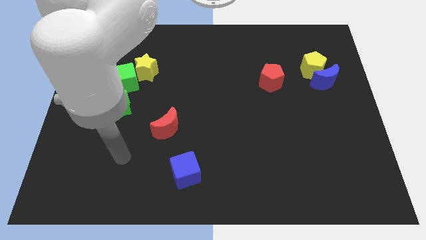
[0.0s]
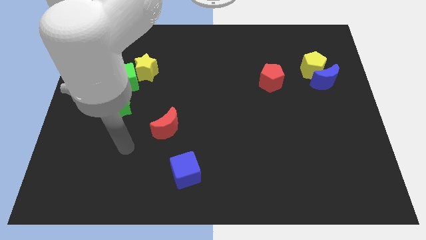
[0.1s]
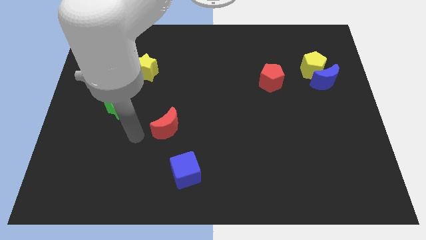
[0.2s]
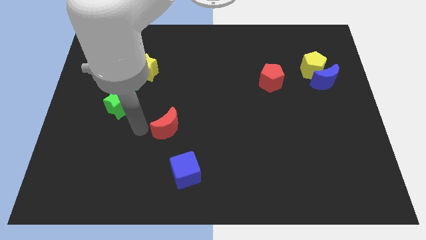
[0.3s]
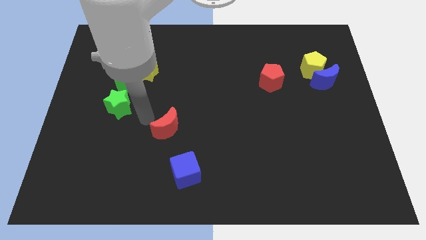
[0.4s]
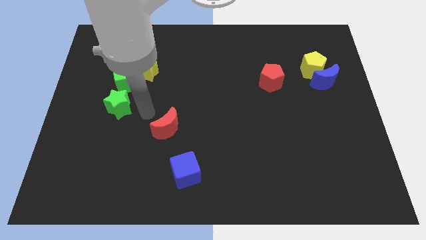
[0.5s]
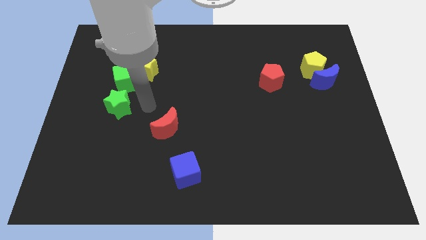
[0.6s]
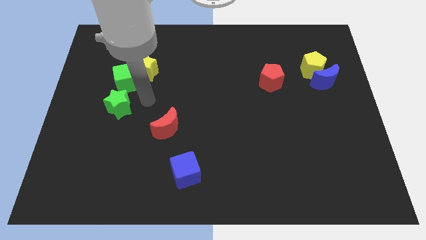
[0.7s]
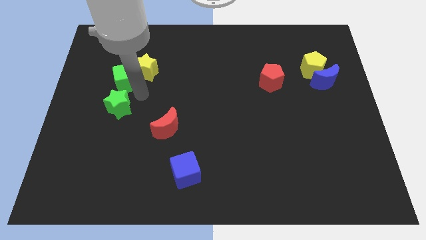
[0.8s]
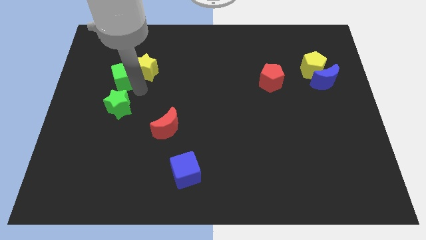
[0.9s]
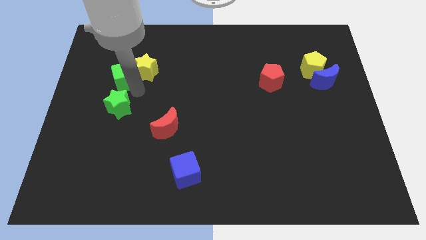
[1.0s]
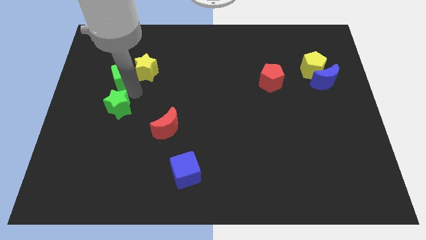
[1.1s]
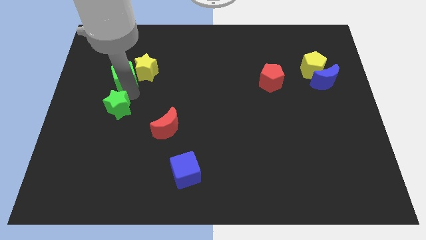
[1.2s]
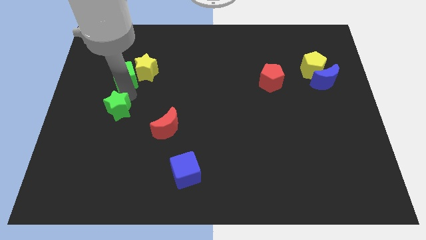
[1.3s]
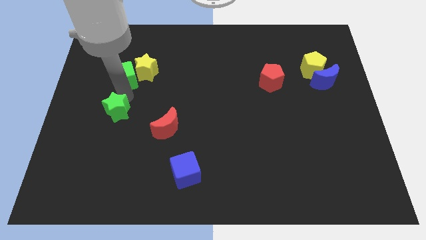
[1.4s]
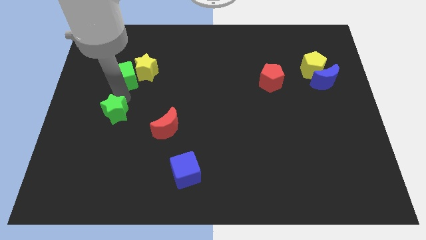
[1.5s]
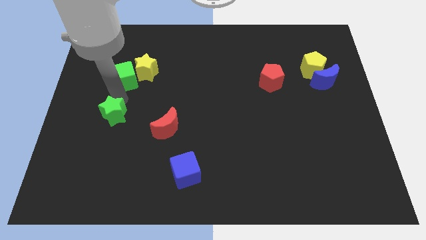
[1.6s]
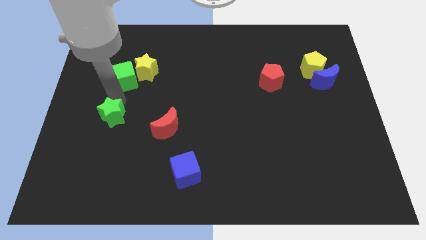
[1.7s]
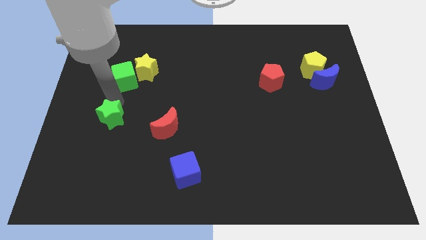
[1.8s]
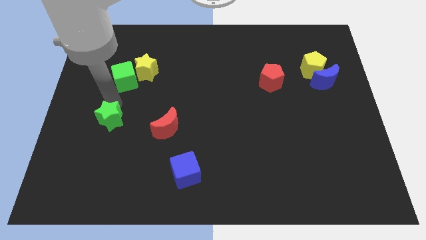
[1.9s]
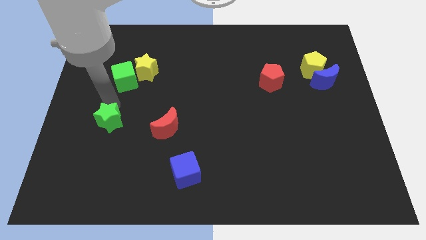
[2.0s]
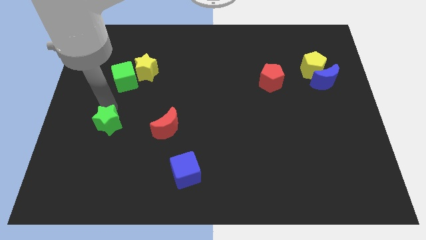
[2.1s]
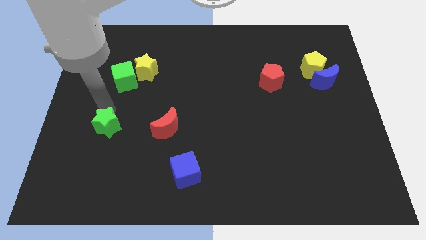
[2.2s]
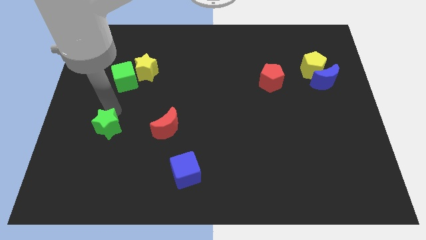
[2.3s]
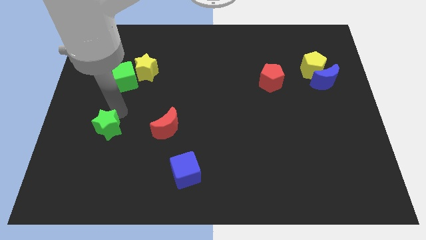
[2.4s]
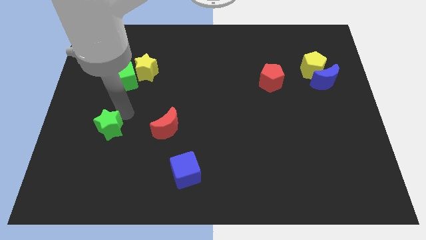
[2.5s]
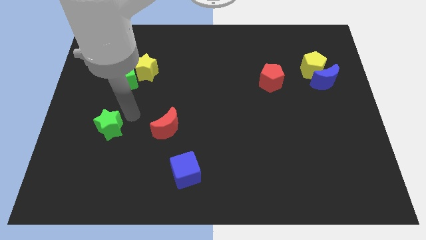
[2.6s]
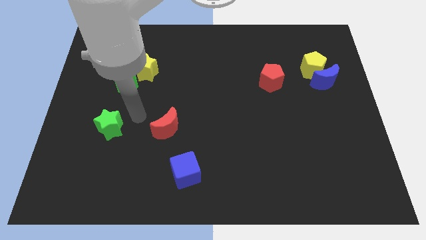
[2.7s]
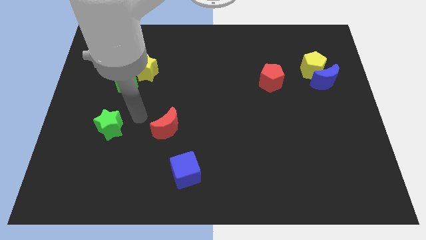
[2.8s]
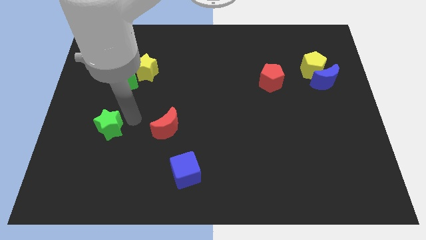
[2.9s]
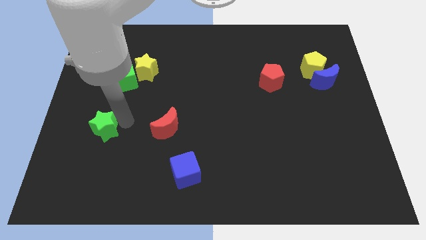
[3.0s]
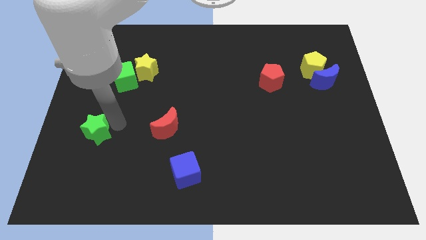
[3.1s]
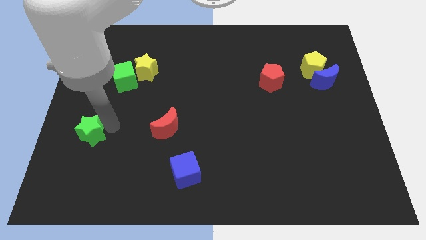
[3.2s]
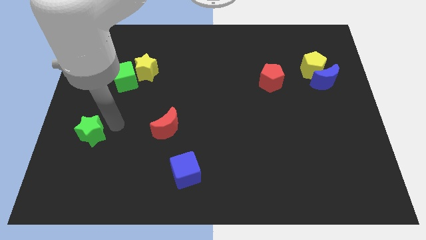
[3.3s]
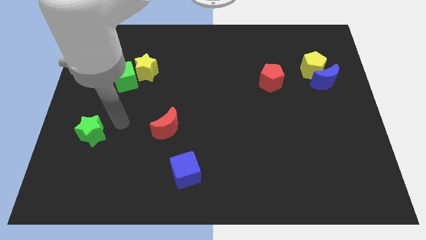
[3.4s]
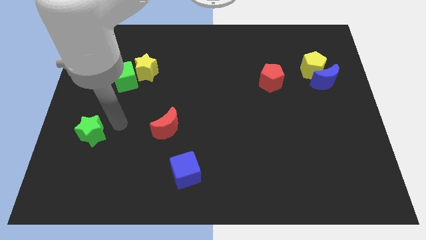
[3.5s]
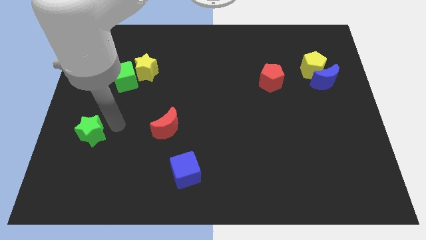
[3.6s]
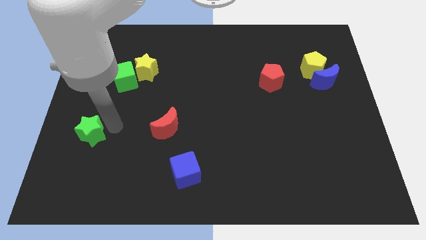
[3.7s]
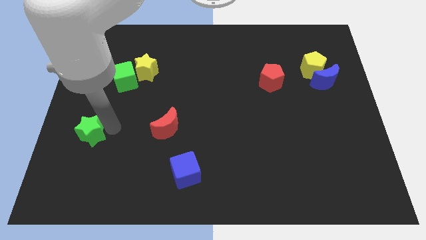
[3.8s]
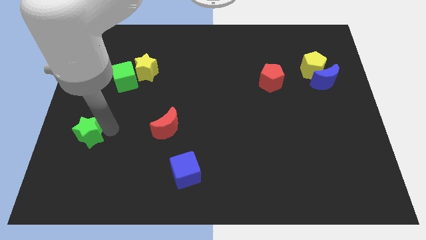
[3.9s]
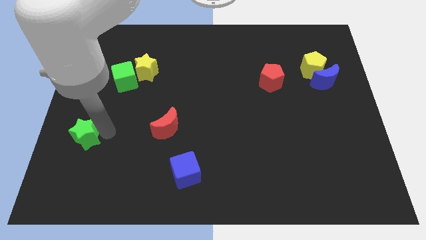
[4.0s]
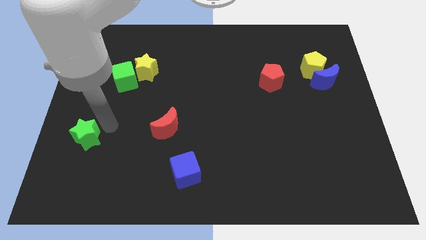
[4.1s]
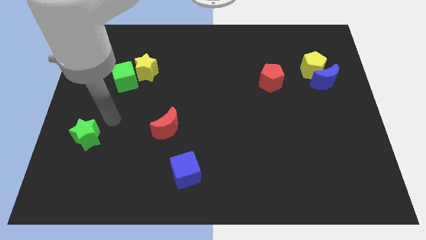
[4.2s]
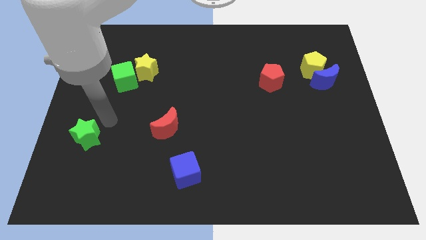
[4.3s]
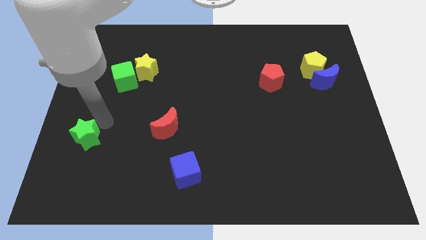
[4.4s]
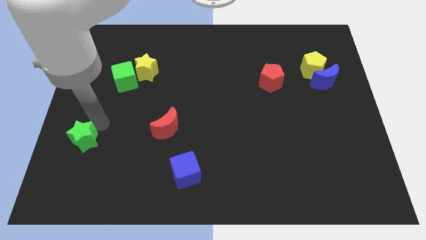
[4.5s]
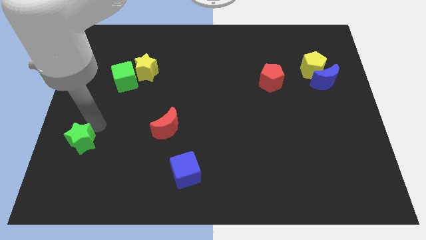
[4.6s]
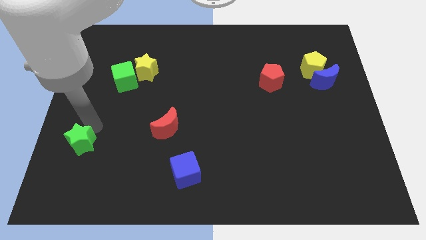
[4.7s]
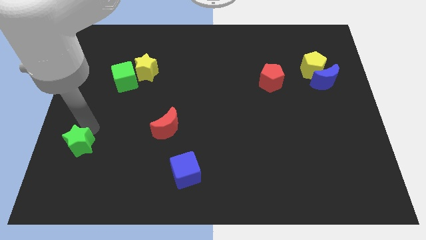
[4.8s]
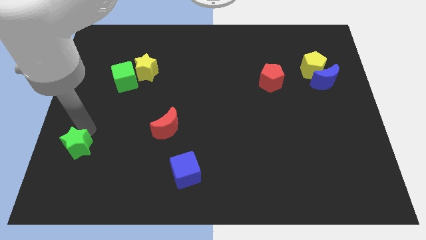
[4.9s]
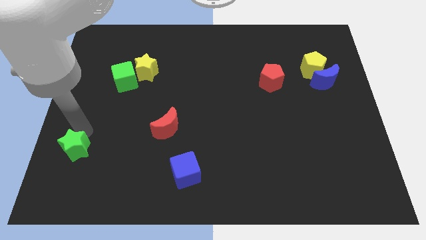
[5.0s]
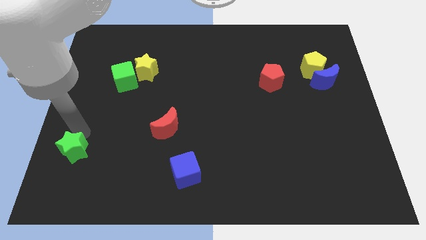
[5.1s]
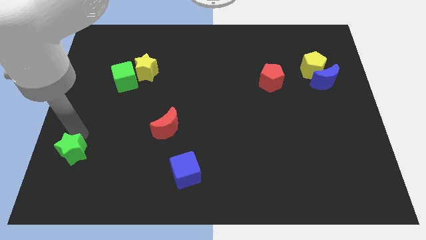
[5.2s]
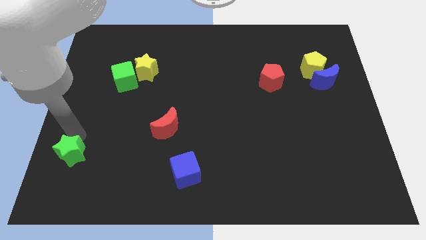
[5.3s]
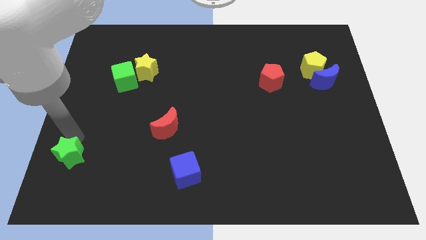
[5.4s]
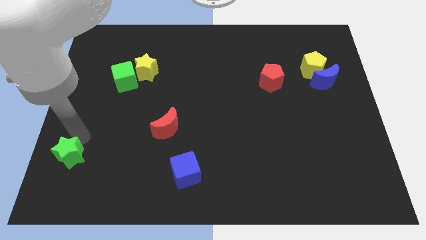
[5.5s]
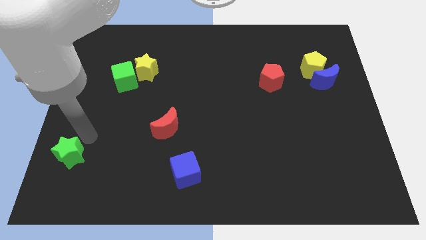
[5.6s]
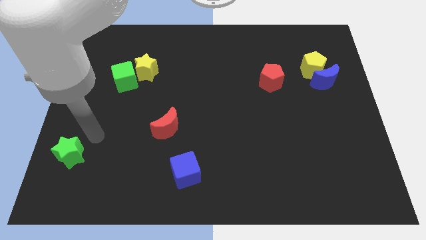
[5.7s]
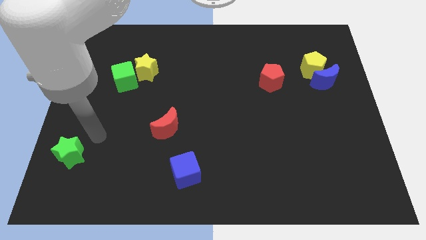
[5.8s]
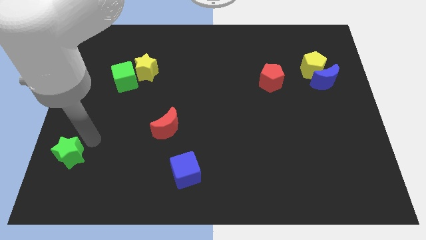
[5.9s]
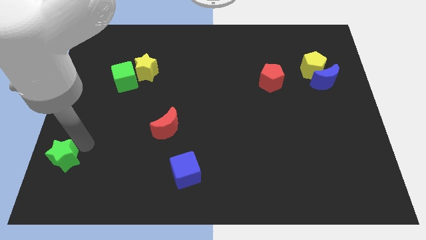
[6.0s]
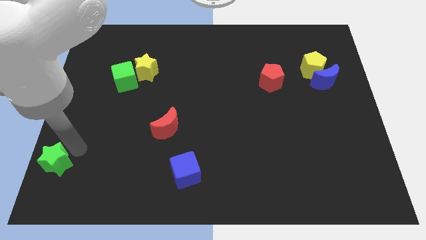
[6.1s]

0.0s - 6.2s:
move the green star to the bottom left corner
